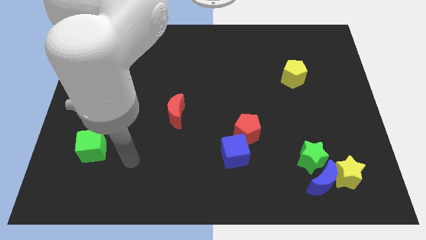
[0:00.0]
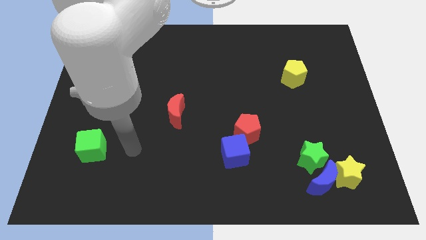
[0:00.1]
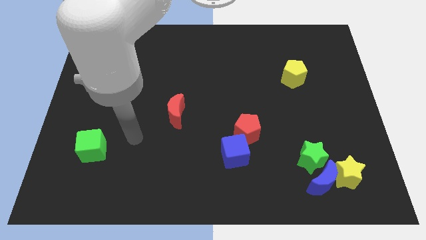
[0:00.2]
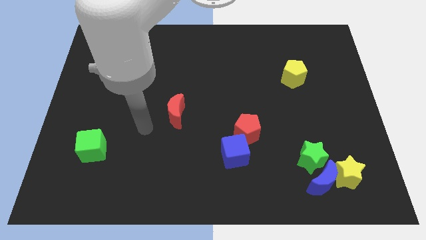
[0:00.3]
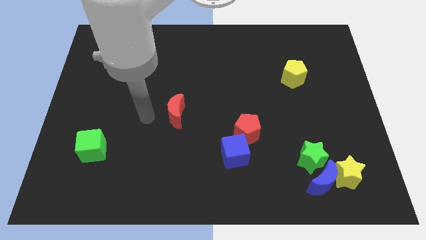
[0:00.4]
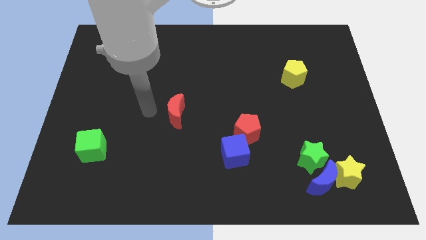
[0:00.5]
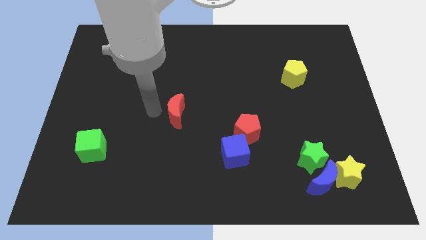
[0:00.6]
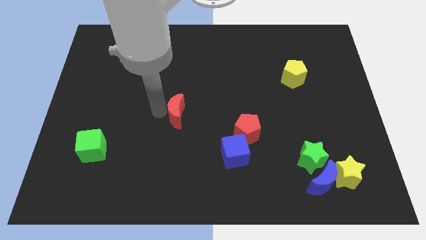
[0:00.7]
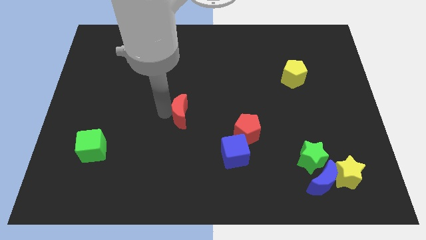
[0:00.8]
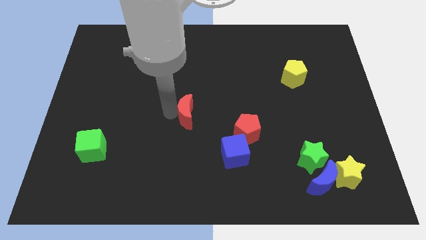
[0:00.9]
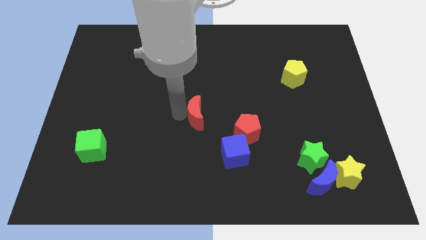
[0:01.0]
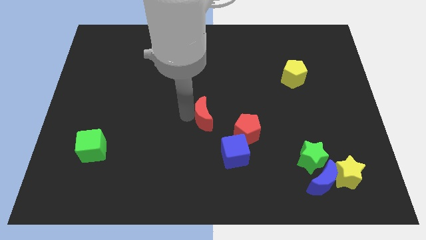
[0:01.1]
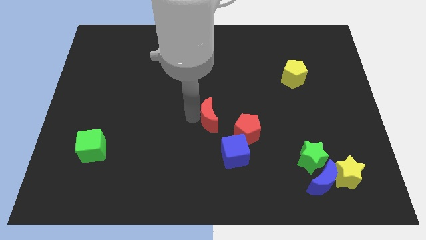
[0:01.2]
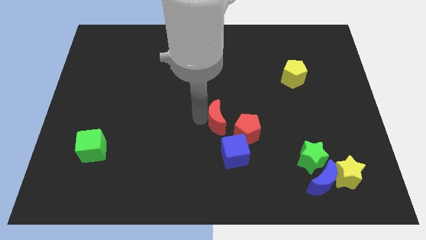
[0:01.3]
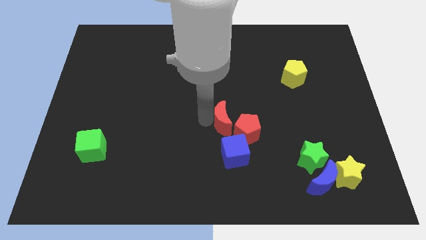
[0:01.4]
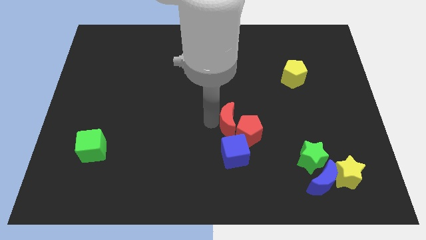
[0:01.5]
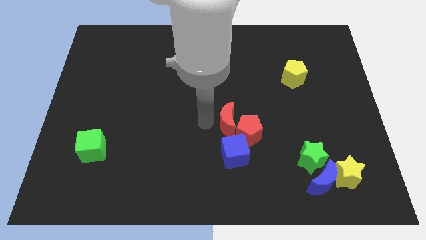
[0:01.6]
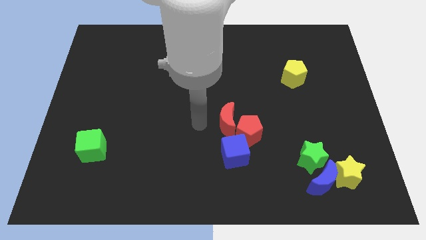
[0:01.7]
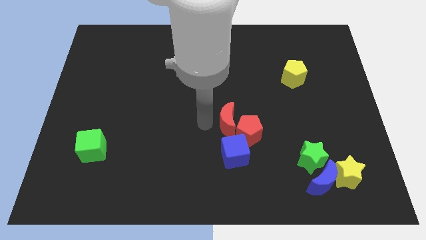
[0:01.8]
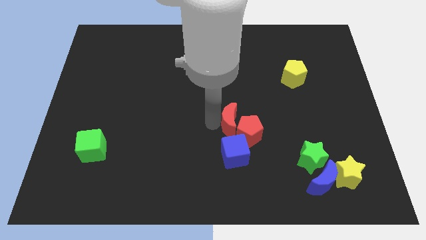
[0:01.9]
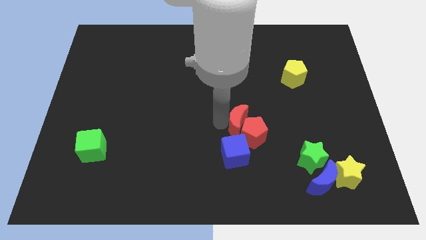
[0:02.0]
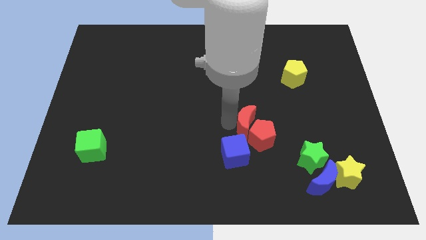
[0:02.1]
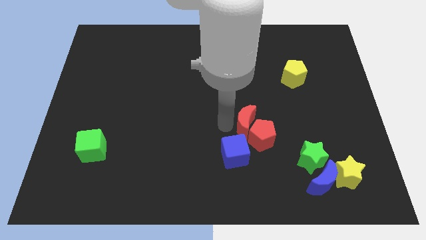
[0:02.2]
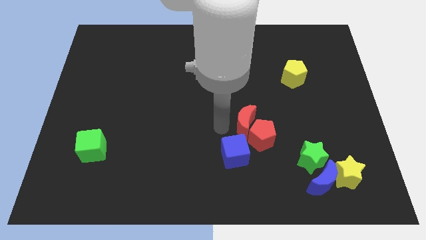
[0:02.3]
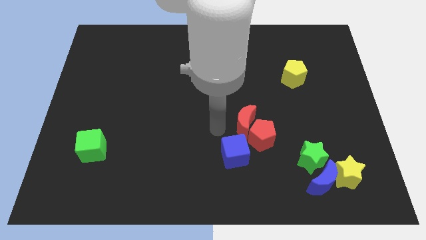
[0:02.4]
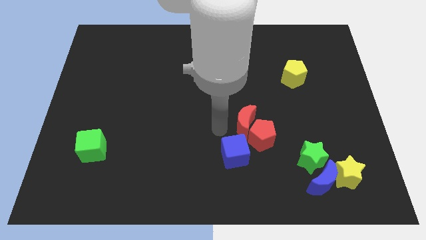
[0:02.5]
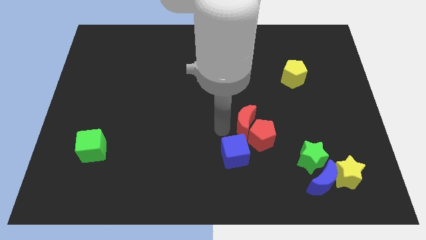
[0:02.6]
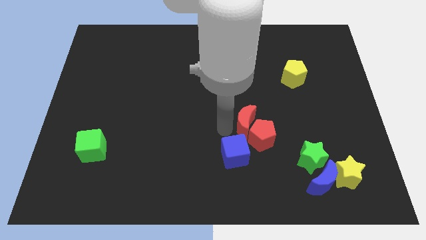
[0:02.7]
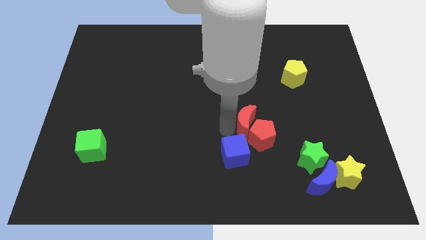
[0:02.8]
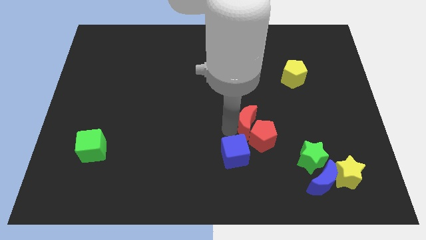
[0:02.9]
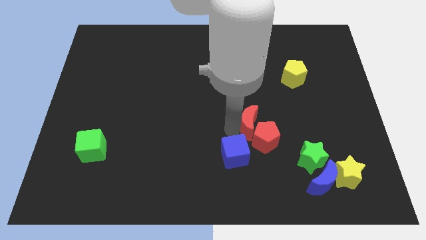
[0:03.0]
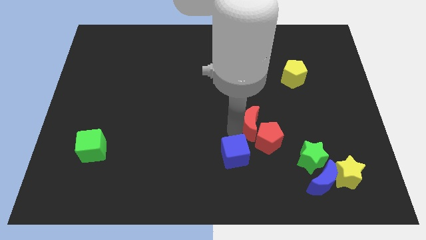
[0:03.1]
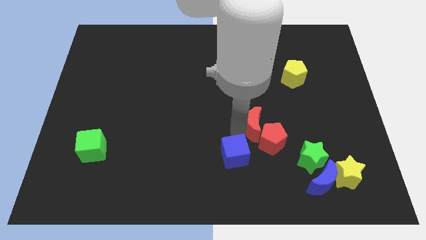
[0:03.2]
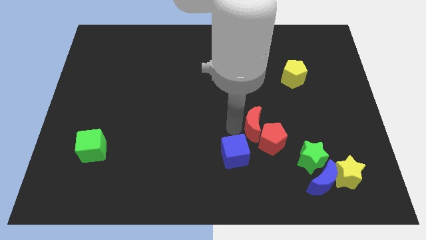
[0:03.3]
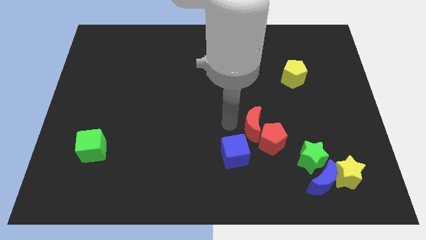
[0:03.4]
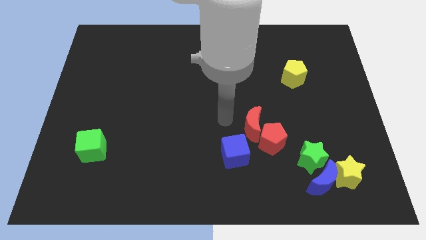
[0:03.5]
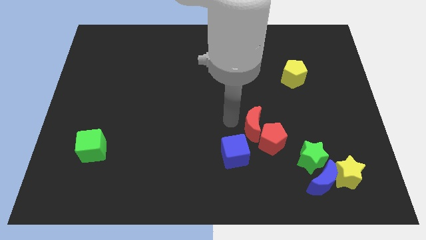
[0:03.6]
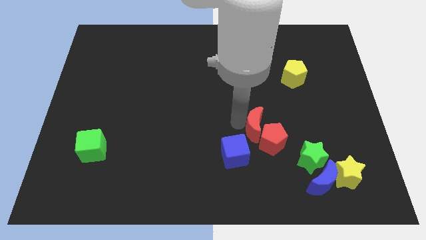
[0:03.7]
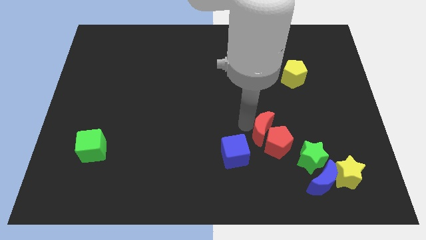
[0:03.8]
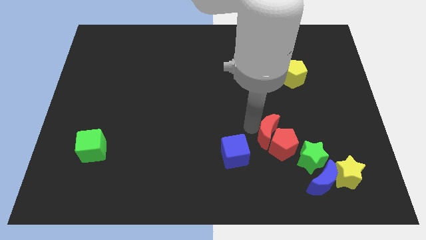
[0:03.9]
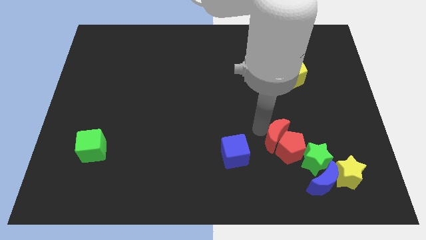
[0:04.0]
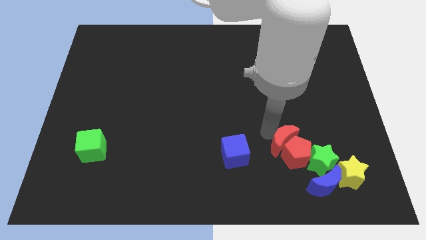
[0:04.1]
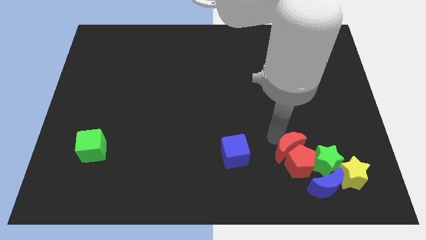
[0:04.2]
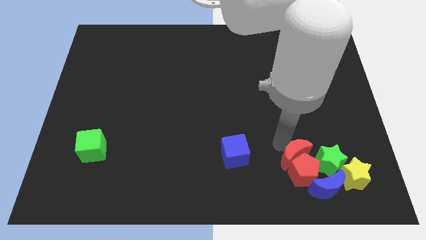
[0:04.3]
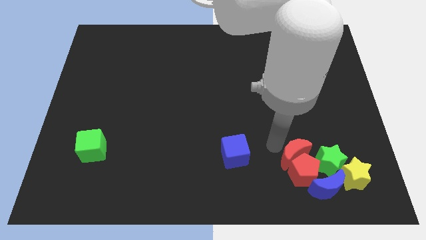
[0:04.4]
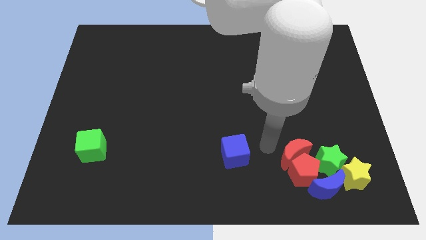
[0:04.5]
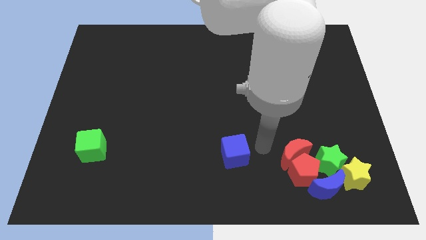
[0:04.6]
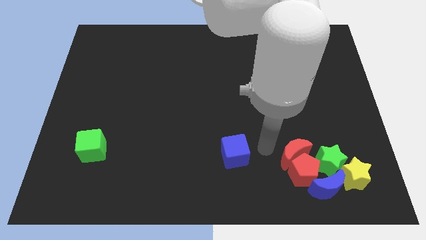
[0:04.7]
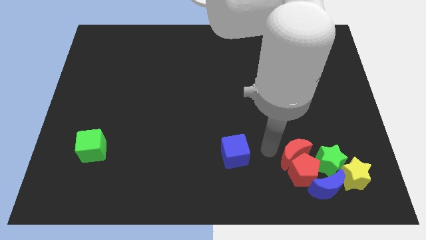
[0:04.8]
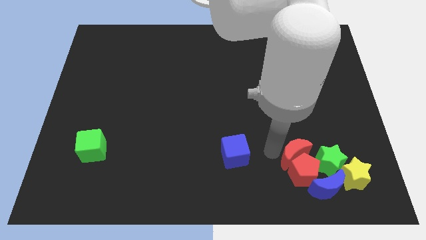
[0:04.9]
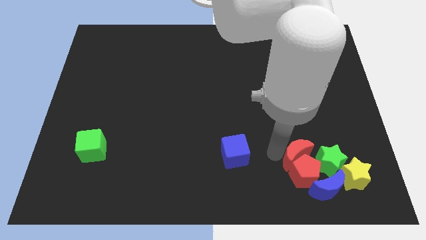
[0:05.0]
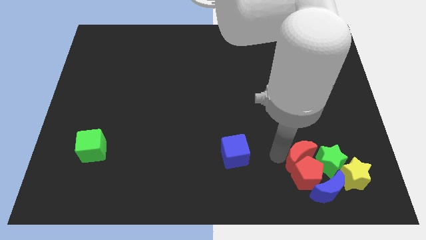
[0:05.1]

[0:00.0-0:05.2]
push the red moon to the green star

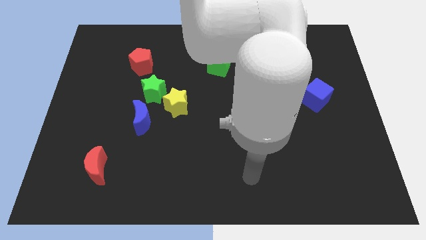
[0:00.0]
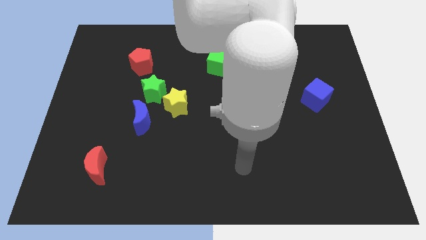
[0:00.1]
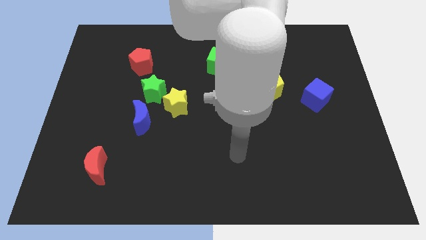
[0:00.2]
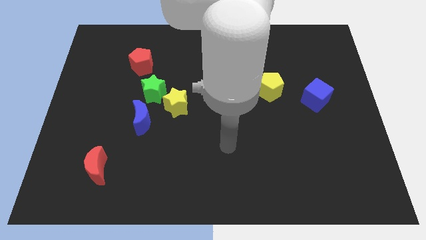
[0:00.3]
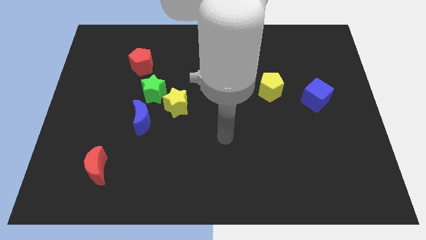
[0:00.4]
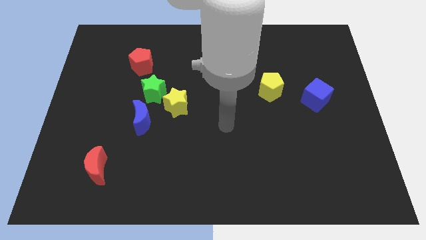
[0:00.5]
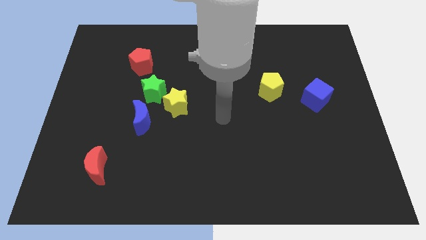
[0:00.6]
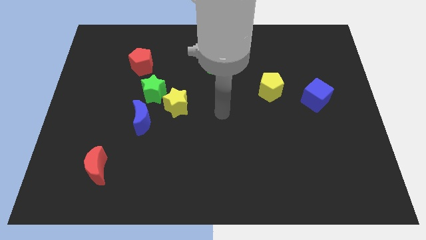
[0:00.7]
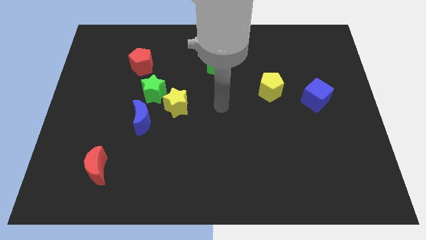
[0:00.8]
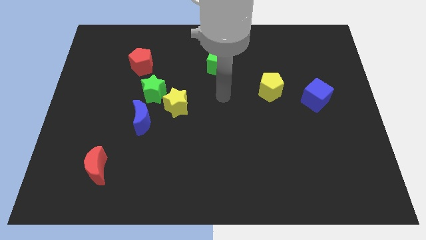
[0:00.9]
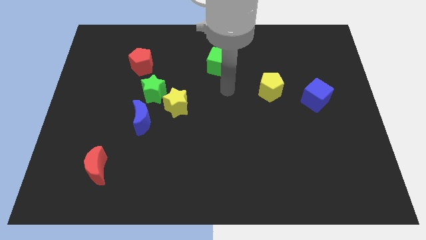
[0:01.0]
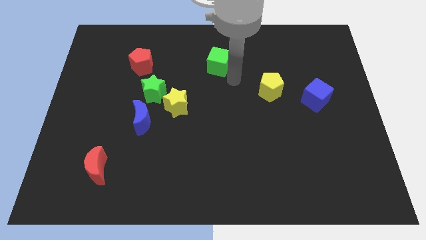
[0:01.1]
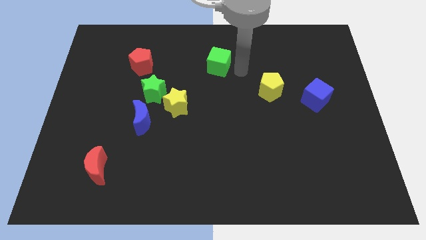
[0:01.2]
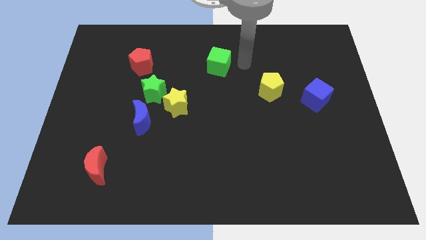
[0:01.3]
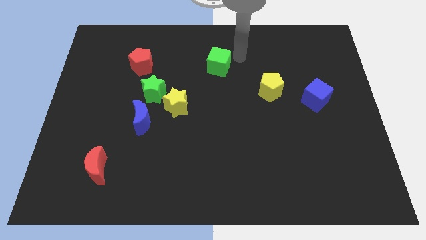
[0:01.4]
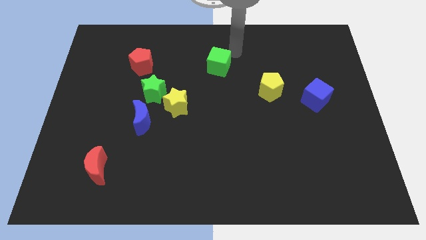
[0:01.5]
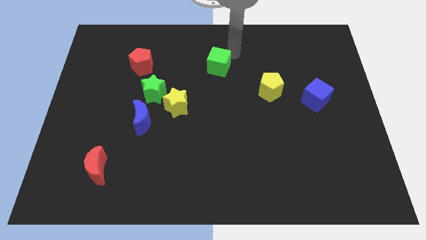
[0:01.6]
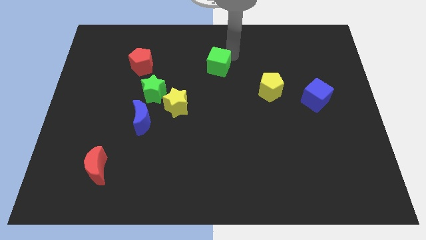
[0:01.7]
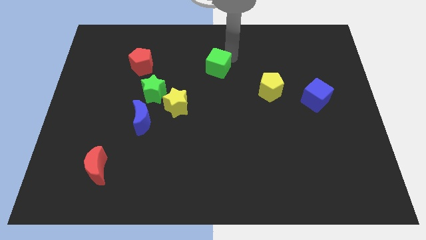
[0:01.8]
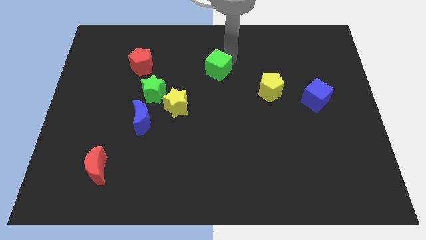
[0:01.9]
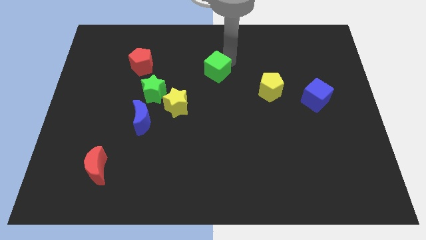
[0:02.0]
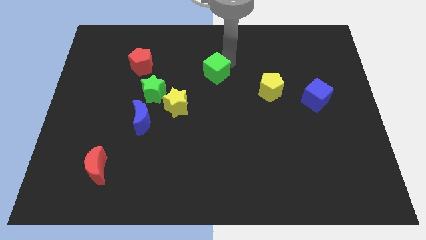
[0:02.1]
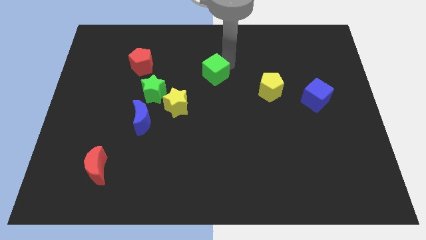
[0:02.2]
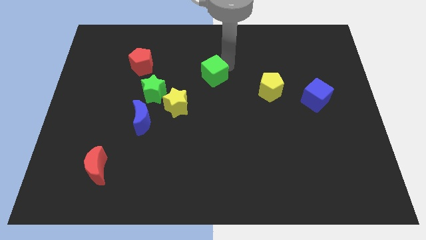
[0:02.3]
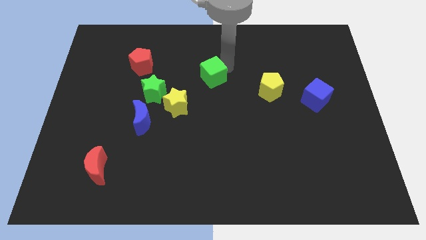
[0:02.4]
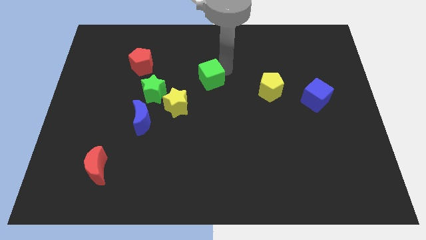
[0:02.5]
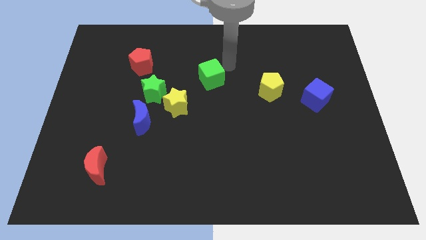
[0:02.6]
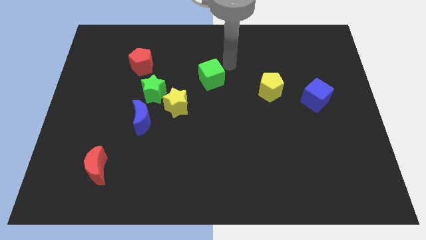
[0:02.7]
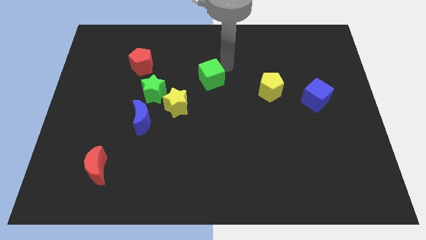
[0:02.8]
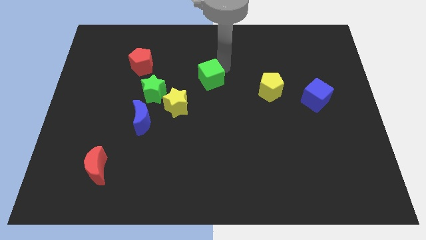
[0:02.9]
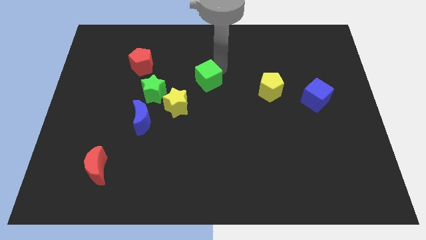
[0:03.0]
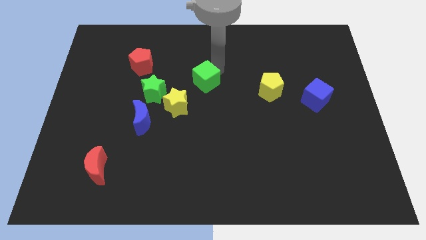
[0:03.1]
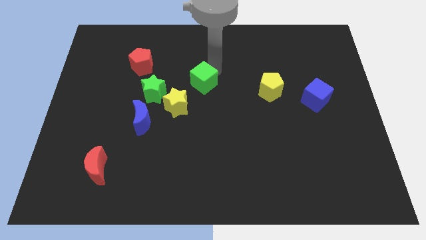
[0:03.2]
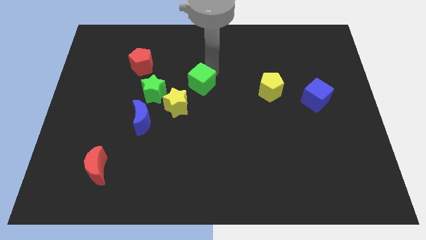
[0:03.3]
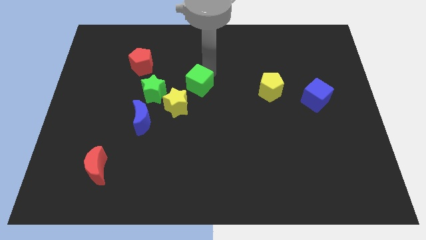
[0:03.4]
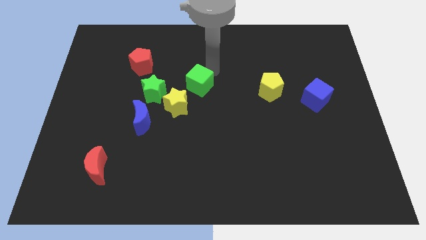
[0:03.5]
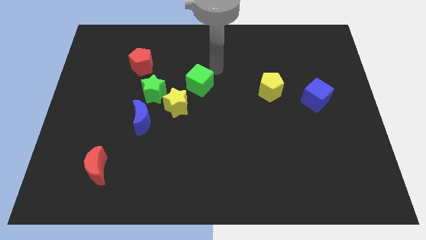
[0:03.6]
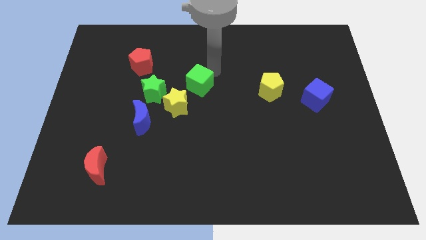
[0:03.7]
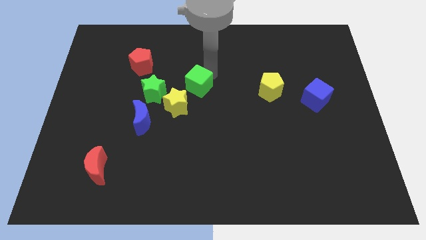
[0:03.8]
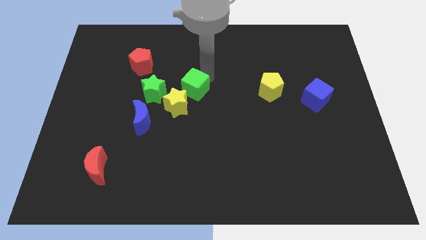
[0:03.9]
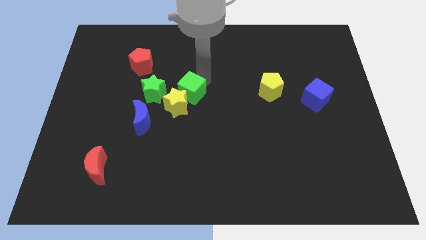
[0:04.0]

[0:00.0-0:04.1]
push the green cube close to the yellow star
